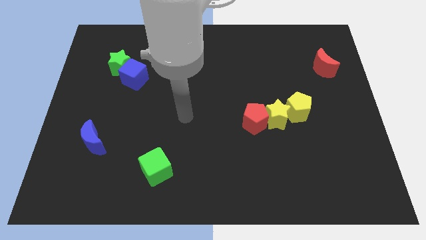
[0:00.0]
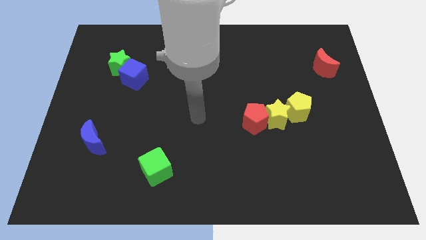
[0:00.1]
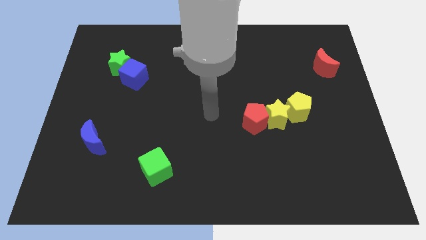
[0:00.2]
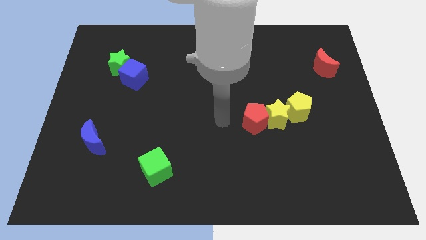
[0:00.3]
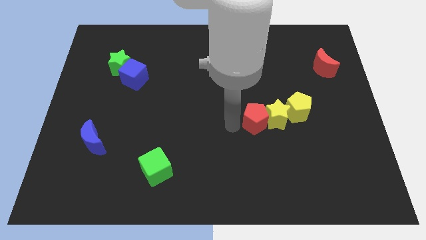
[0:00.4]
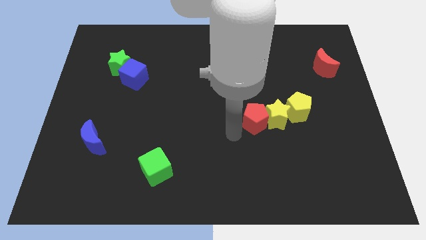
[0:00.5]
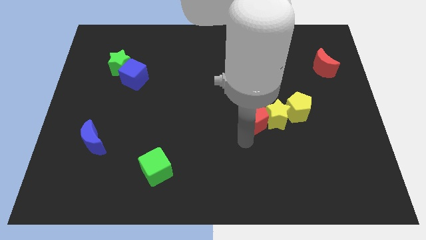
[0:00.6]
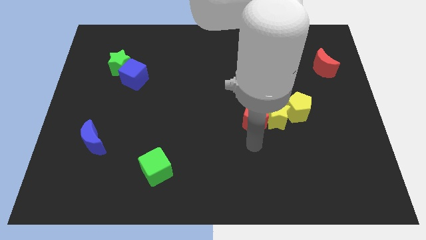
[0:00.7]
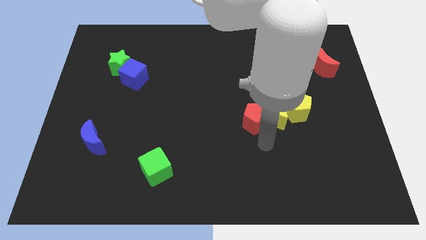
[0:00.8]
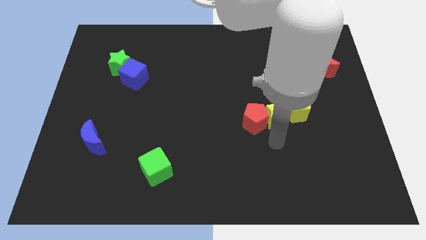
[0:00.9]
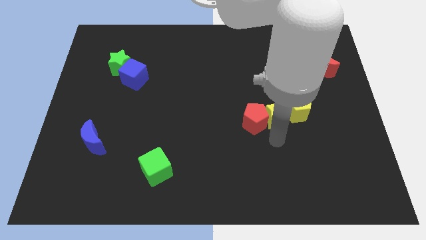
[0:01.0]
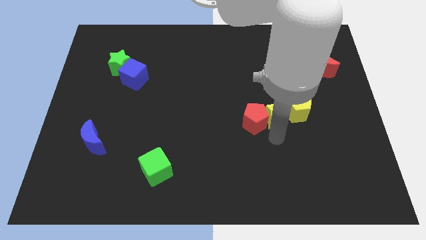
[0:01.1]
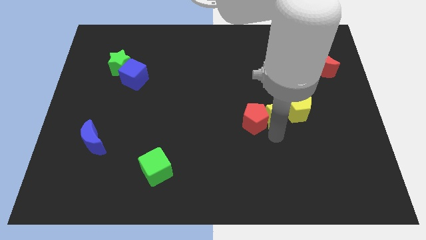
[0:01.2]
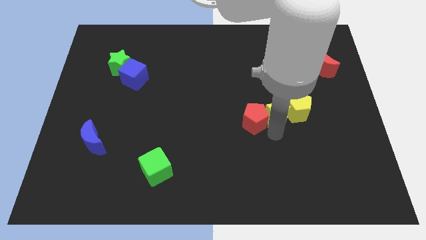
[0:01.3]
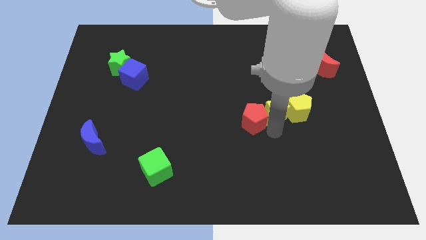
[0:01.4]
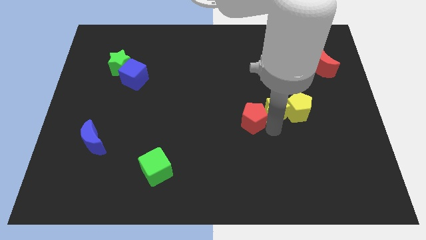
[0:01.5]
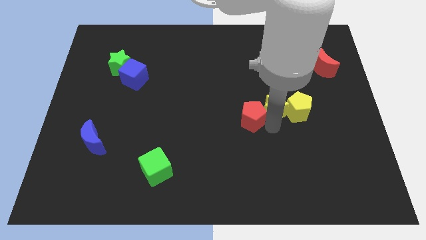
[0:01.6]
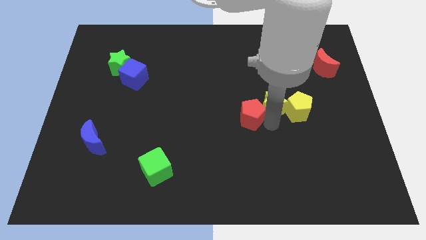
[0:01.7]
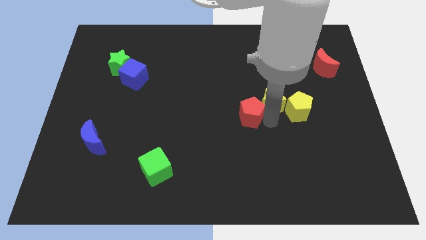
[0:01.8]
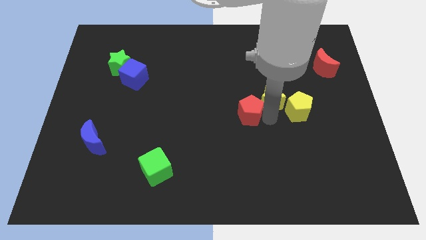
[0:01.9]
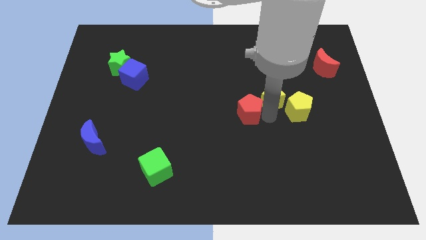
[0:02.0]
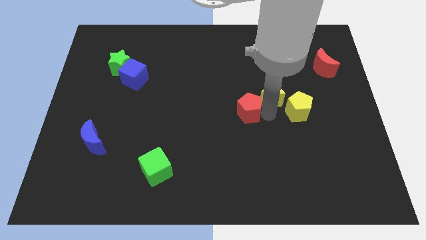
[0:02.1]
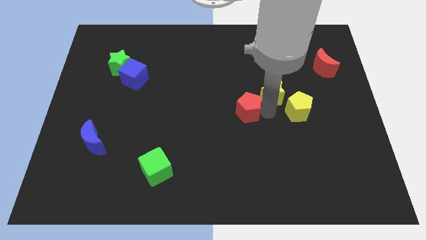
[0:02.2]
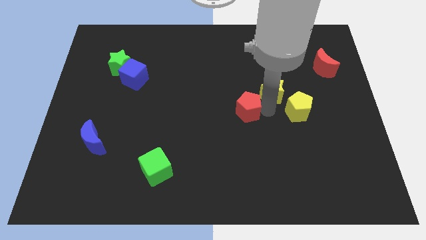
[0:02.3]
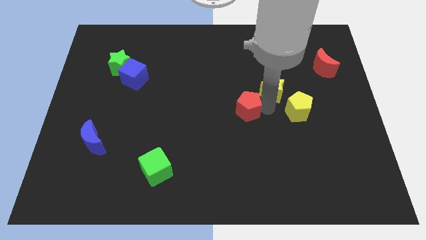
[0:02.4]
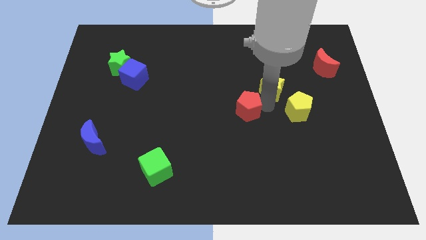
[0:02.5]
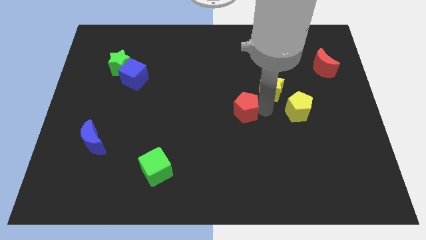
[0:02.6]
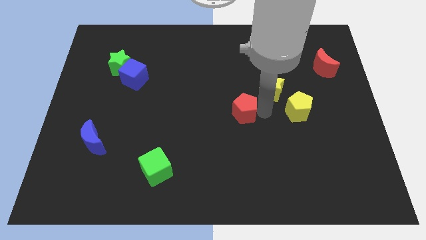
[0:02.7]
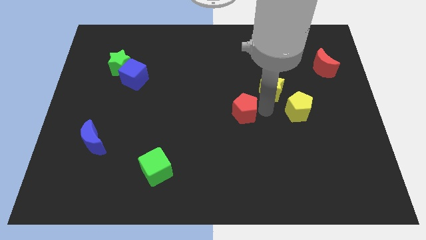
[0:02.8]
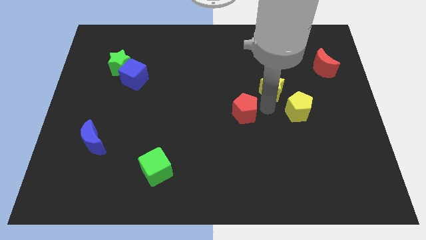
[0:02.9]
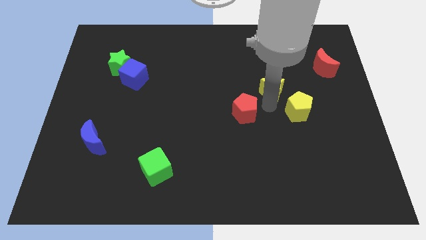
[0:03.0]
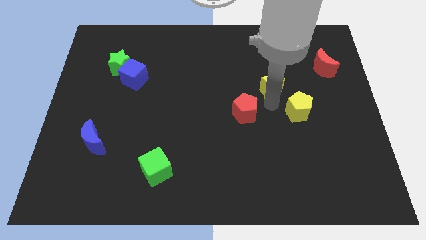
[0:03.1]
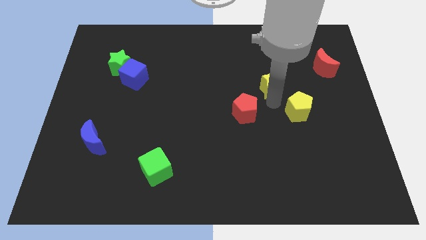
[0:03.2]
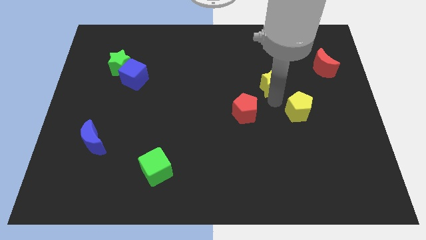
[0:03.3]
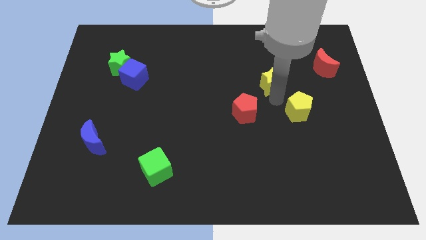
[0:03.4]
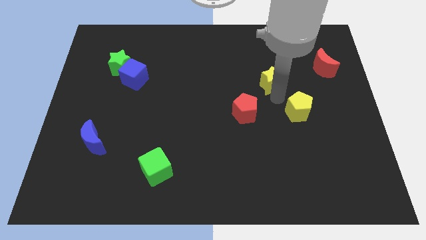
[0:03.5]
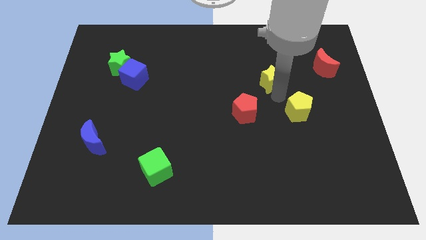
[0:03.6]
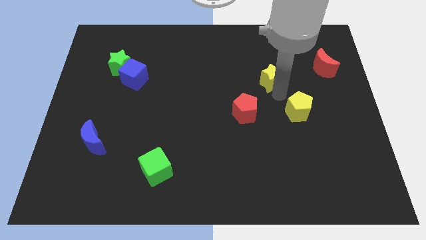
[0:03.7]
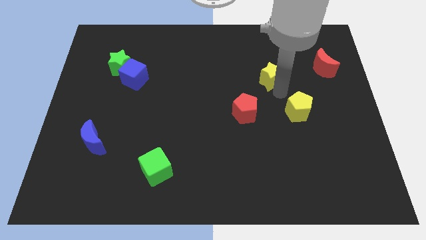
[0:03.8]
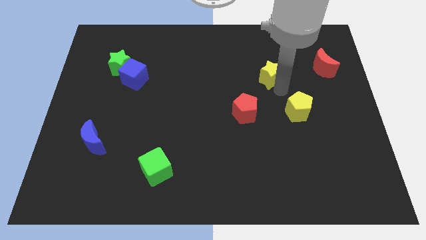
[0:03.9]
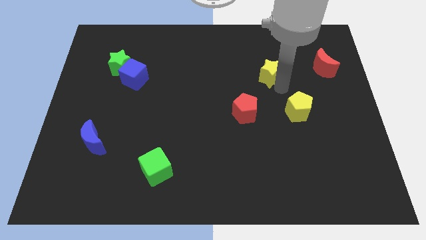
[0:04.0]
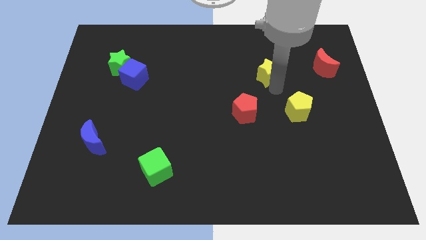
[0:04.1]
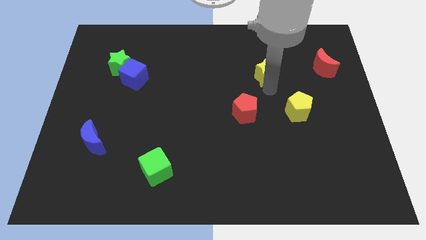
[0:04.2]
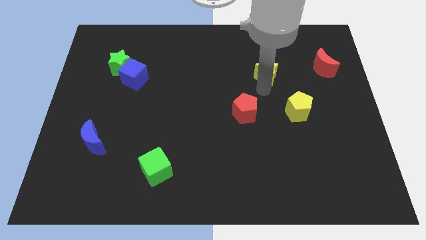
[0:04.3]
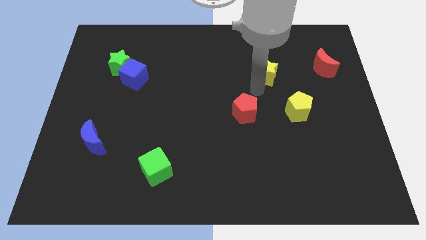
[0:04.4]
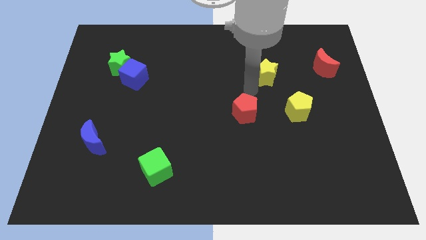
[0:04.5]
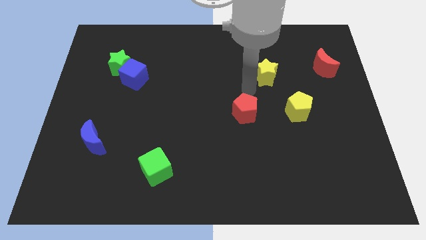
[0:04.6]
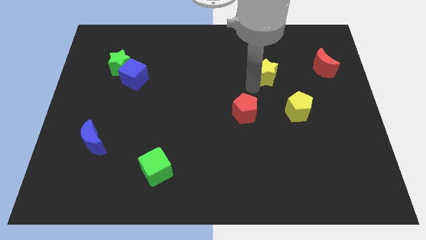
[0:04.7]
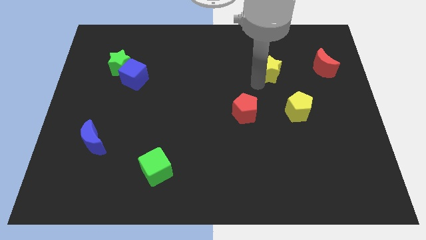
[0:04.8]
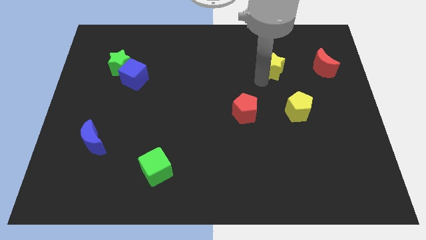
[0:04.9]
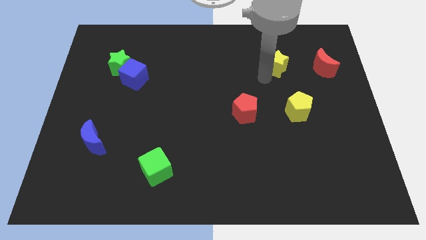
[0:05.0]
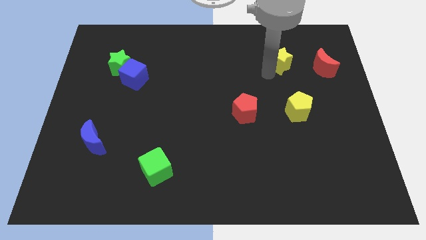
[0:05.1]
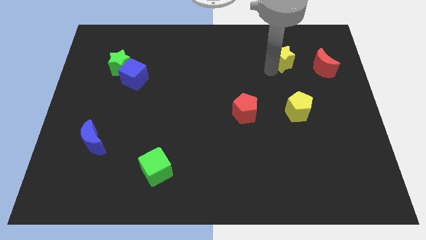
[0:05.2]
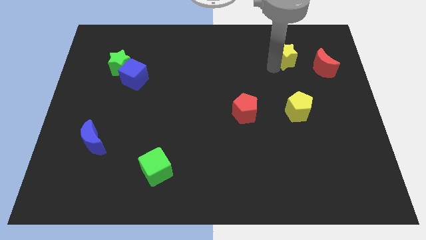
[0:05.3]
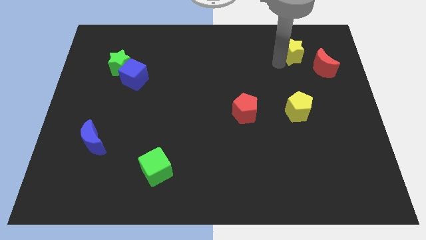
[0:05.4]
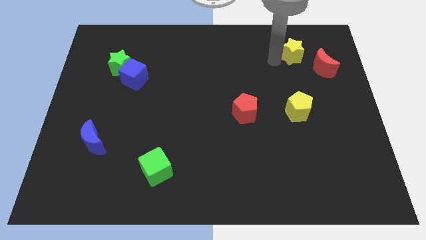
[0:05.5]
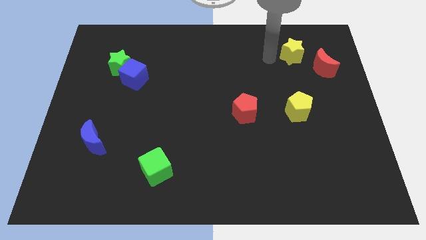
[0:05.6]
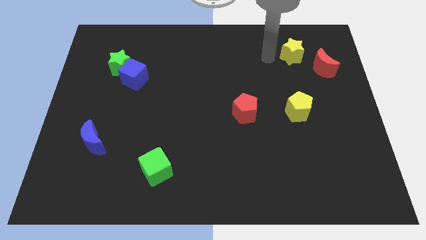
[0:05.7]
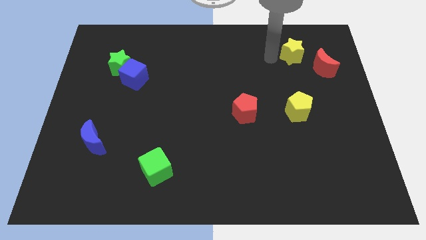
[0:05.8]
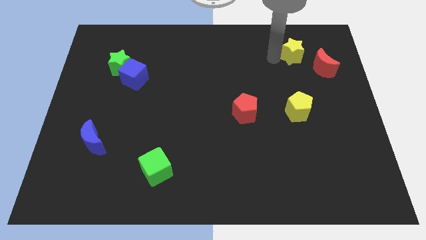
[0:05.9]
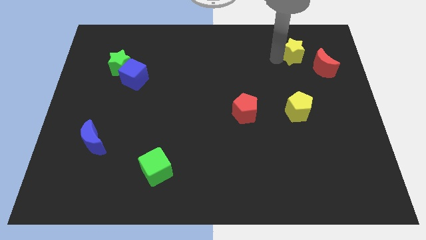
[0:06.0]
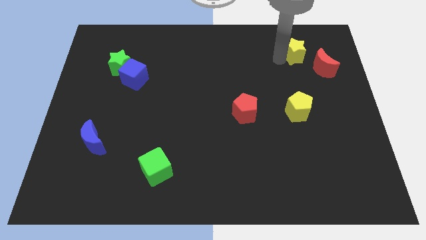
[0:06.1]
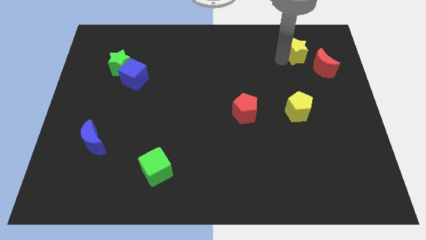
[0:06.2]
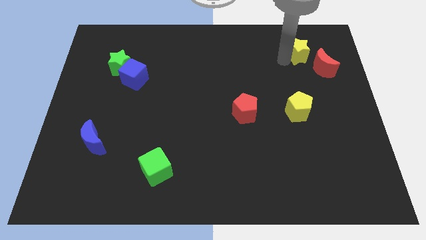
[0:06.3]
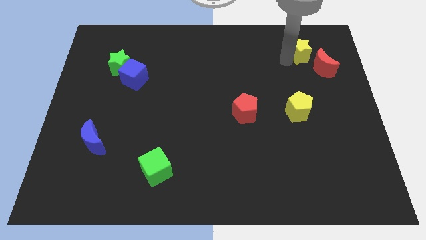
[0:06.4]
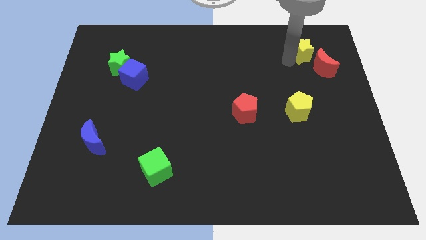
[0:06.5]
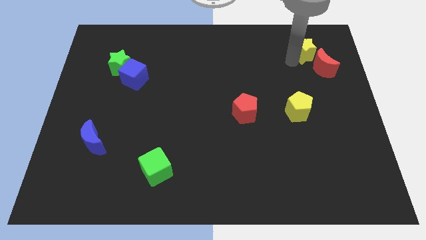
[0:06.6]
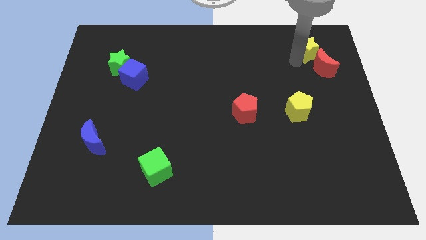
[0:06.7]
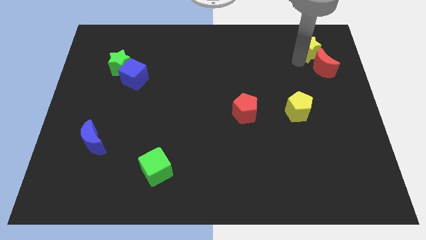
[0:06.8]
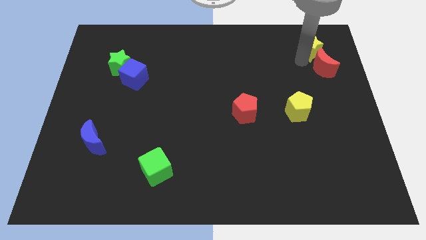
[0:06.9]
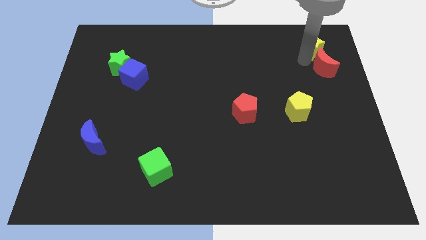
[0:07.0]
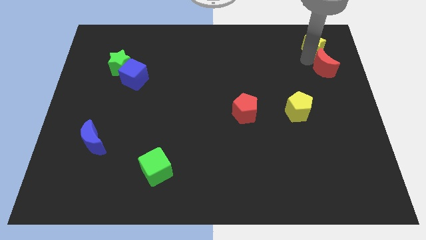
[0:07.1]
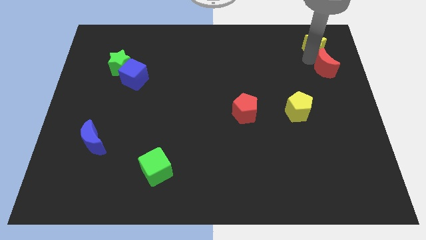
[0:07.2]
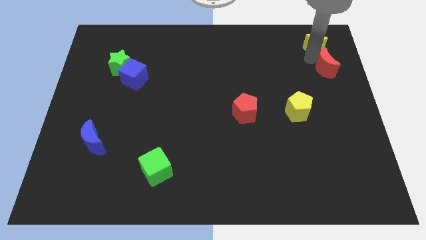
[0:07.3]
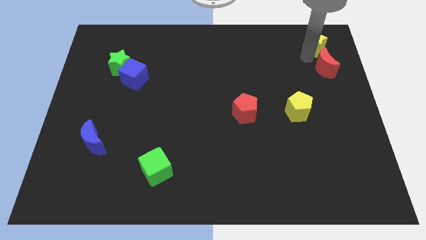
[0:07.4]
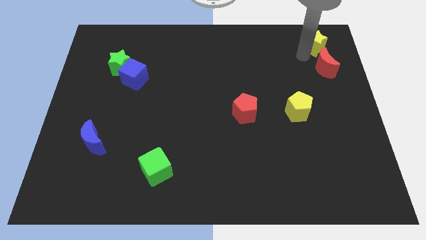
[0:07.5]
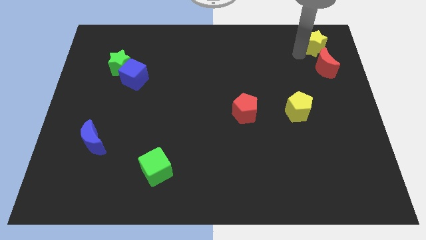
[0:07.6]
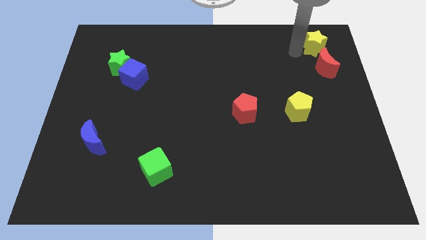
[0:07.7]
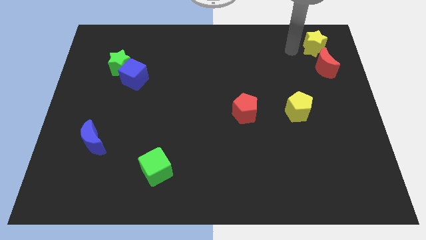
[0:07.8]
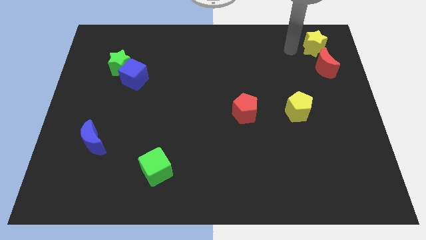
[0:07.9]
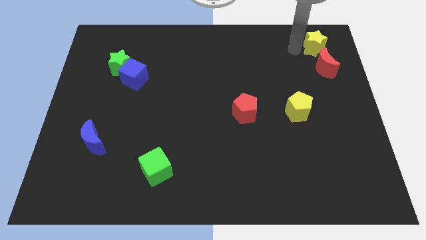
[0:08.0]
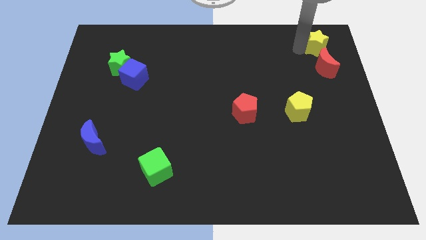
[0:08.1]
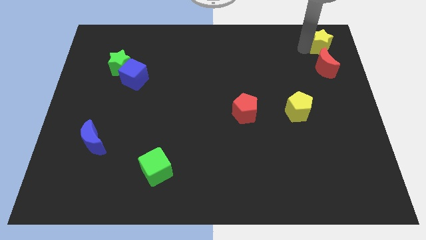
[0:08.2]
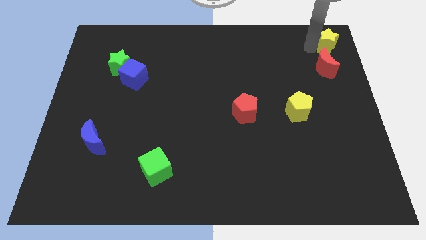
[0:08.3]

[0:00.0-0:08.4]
put the yellow star to the top right of the board
